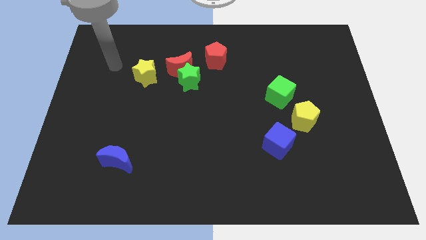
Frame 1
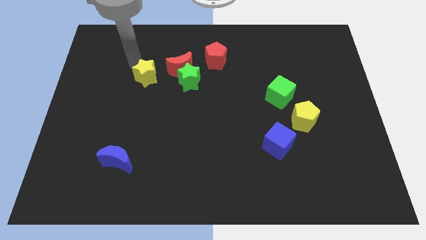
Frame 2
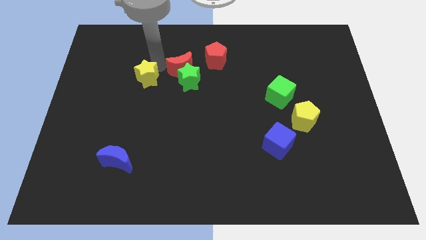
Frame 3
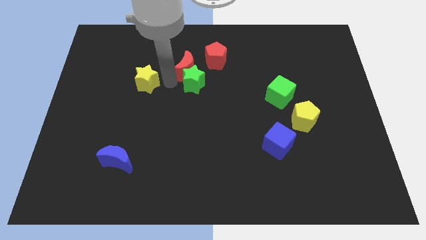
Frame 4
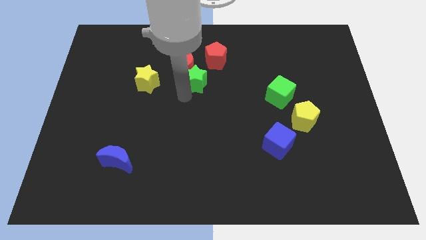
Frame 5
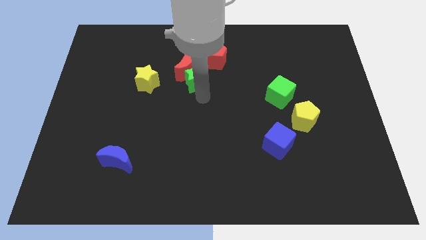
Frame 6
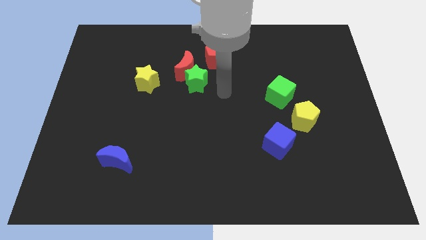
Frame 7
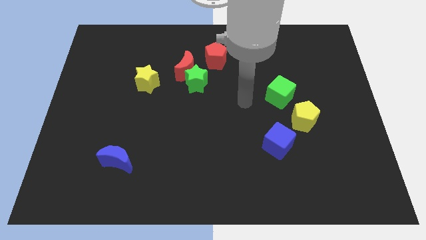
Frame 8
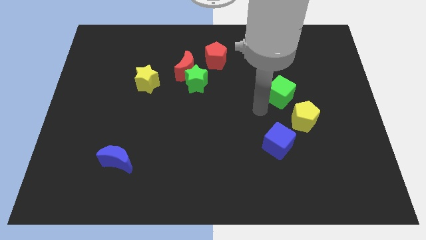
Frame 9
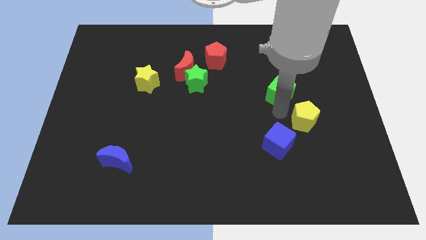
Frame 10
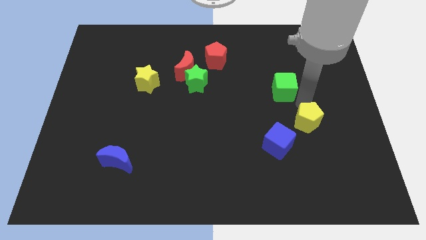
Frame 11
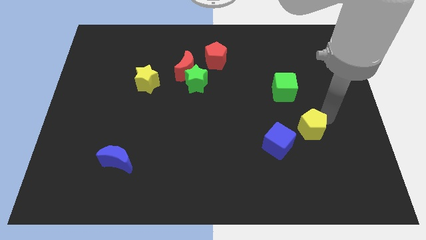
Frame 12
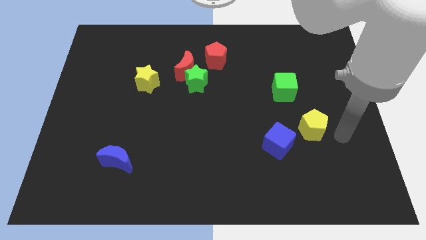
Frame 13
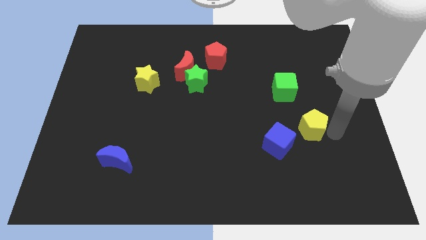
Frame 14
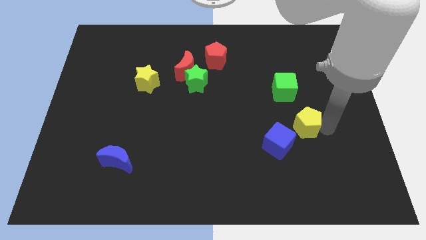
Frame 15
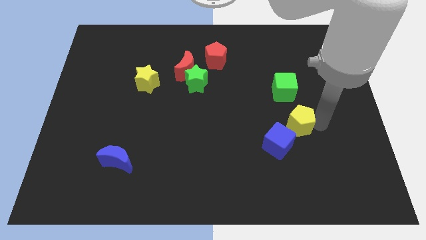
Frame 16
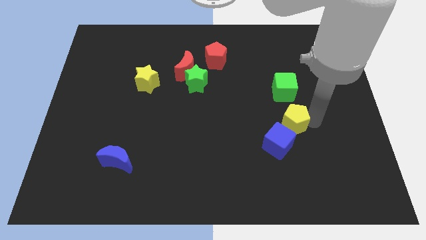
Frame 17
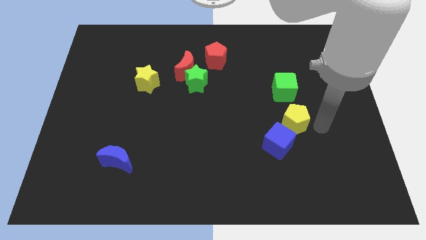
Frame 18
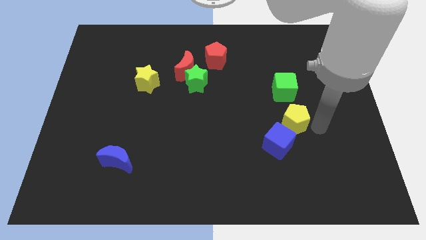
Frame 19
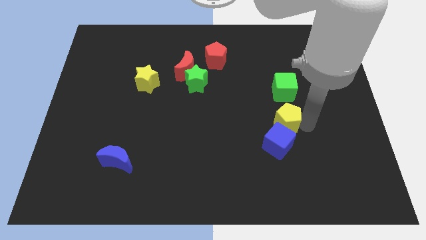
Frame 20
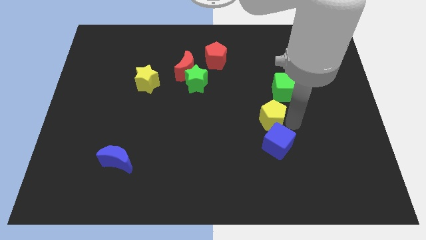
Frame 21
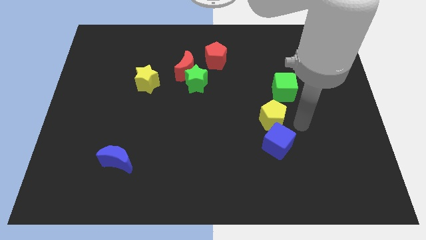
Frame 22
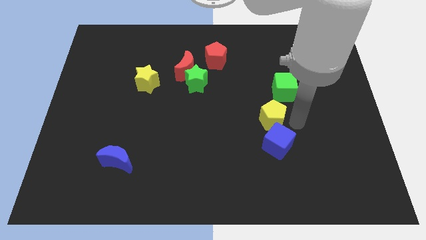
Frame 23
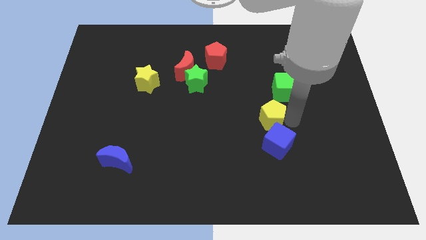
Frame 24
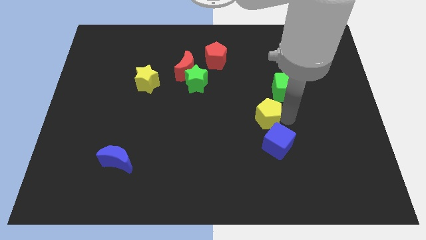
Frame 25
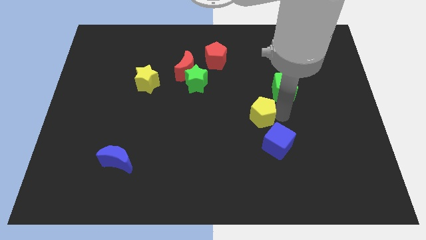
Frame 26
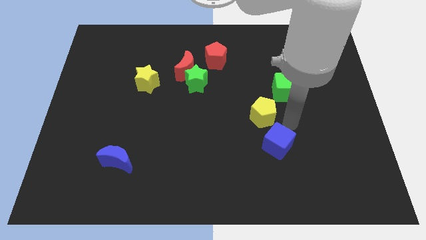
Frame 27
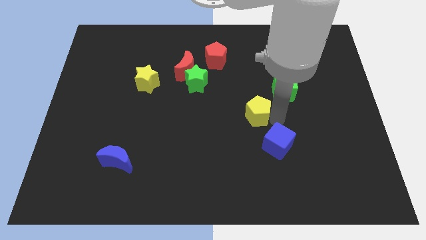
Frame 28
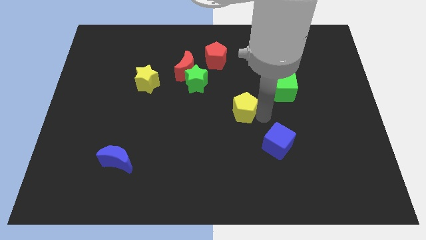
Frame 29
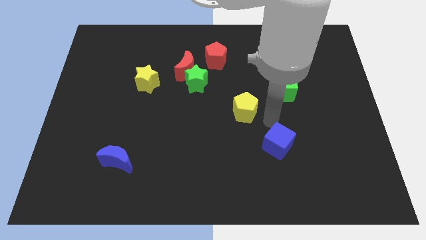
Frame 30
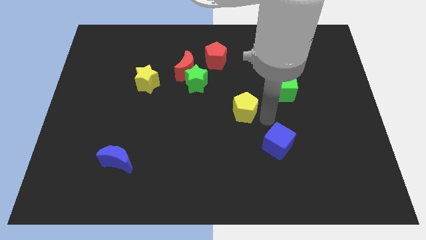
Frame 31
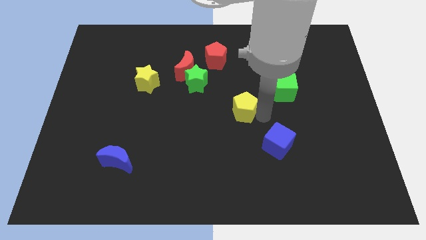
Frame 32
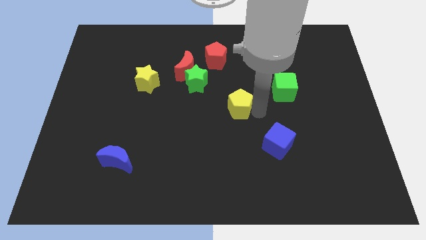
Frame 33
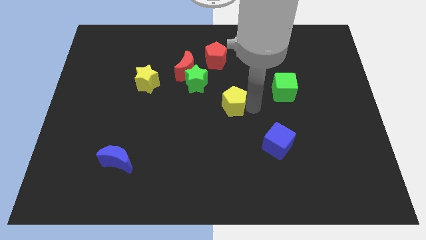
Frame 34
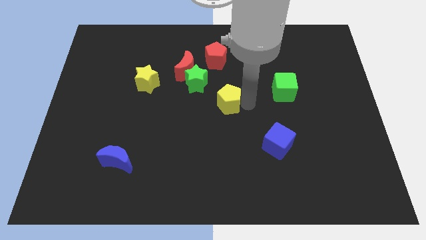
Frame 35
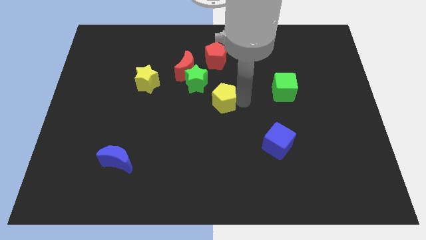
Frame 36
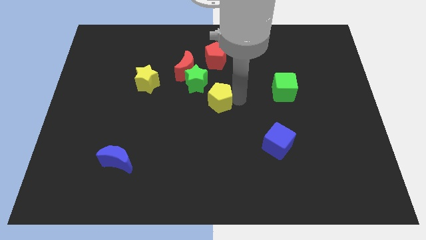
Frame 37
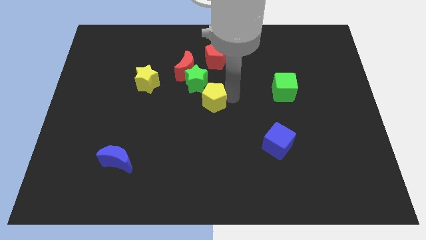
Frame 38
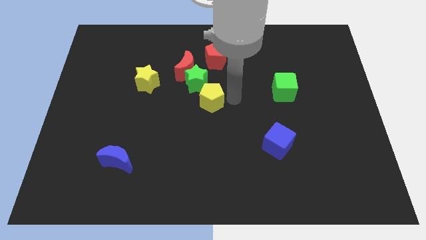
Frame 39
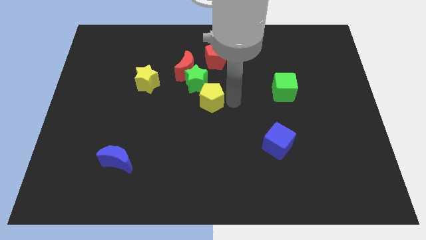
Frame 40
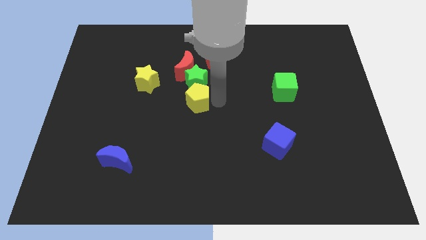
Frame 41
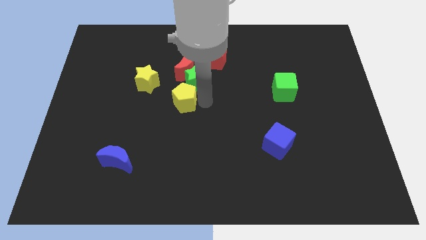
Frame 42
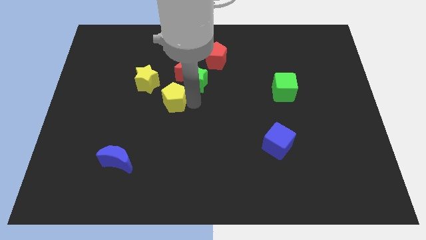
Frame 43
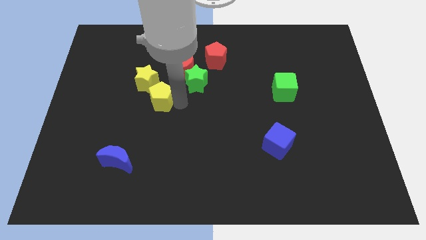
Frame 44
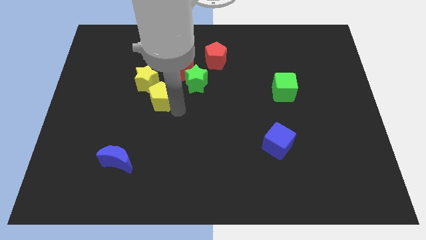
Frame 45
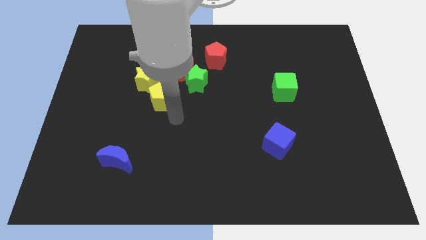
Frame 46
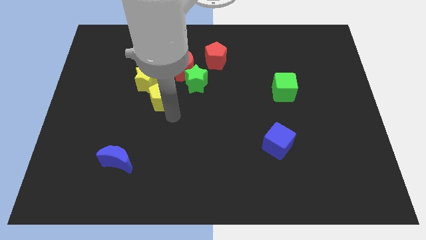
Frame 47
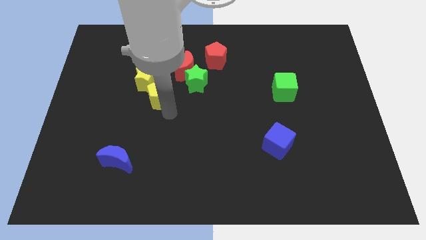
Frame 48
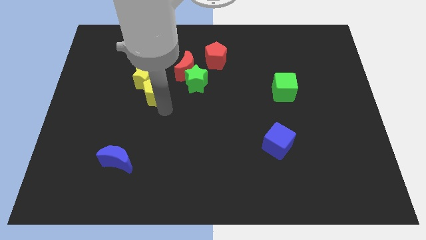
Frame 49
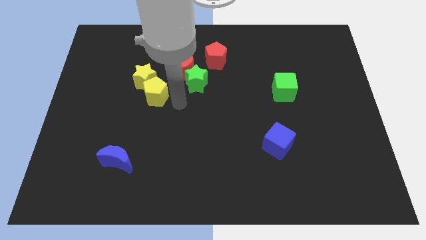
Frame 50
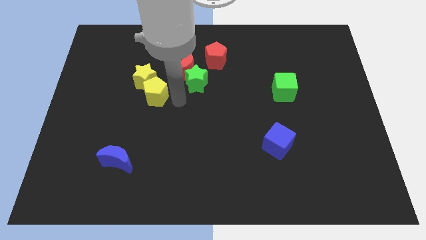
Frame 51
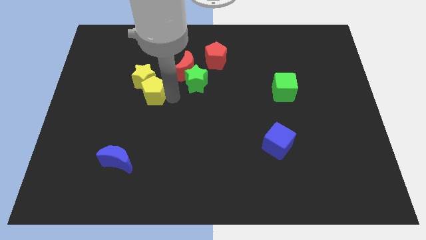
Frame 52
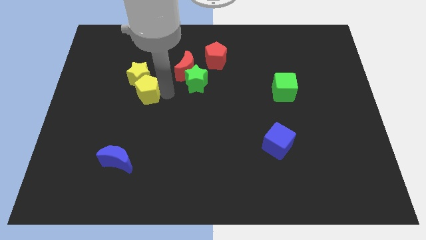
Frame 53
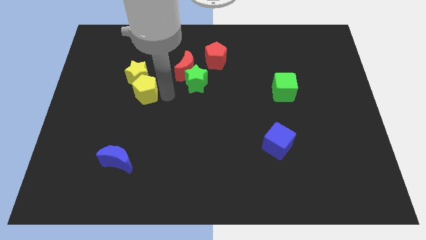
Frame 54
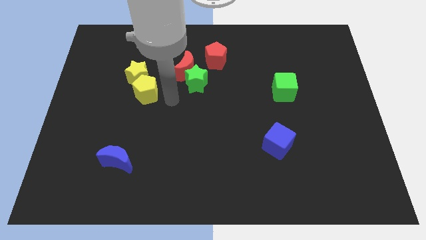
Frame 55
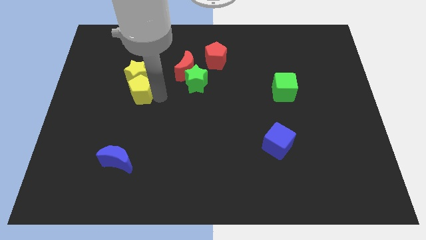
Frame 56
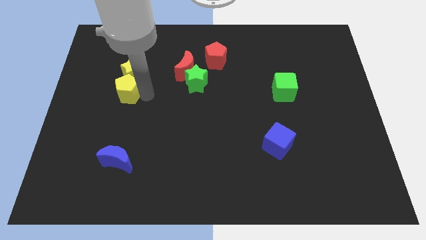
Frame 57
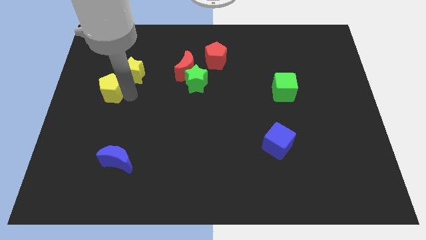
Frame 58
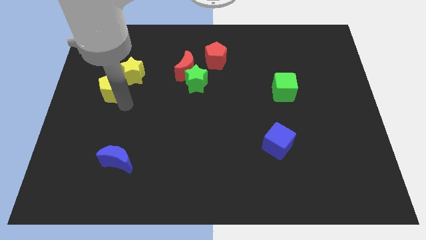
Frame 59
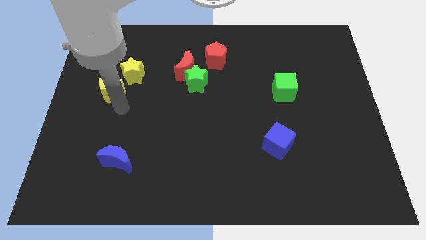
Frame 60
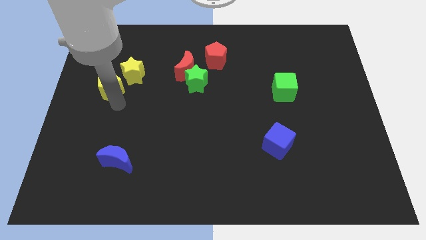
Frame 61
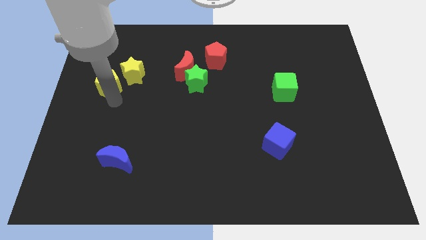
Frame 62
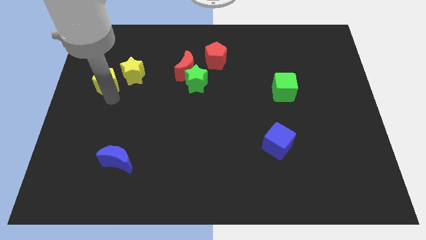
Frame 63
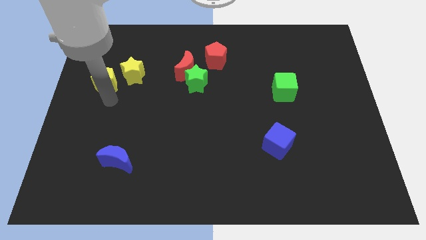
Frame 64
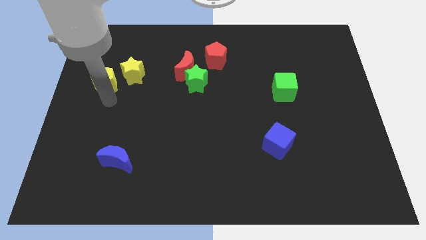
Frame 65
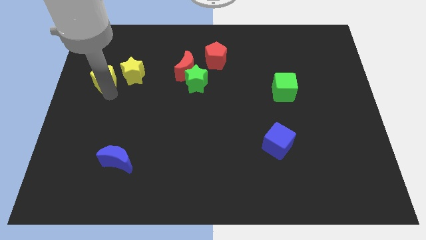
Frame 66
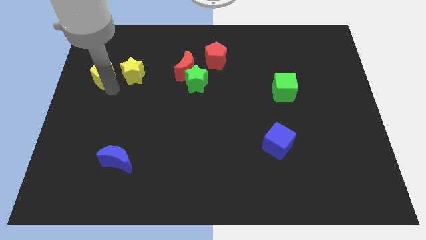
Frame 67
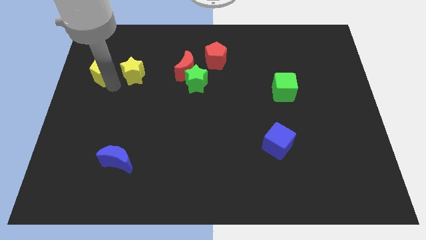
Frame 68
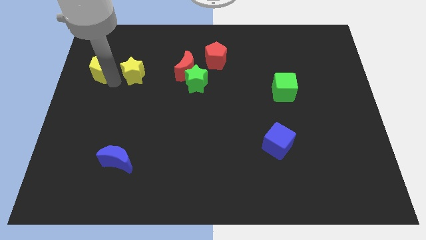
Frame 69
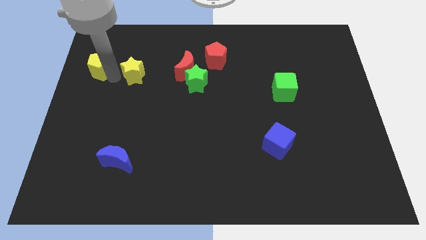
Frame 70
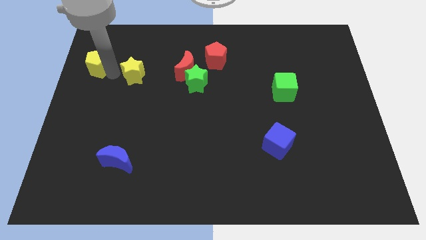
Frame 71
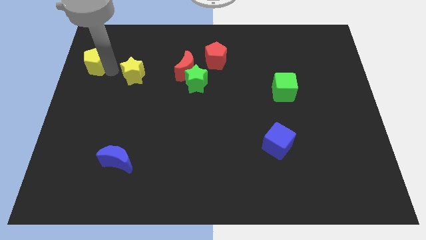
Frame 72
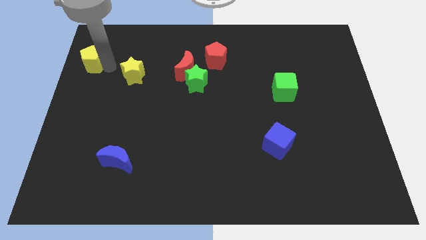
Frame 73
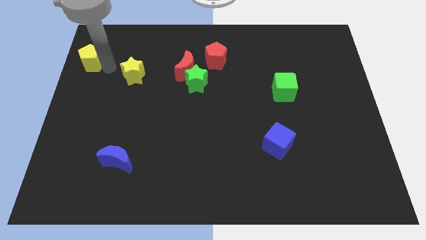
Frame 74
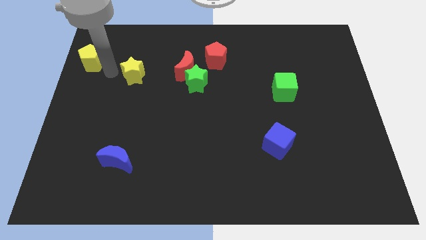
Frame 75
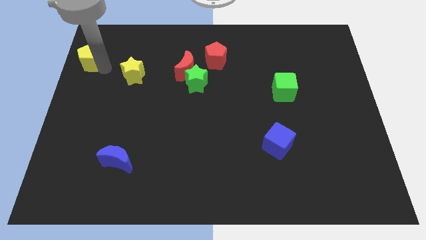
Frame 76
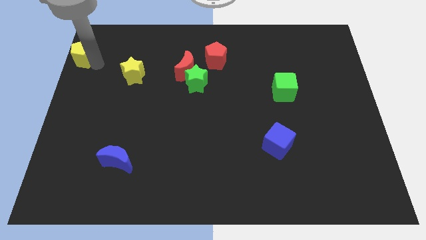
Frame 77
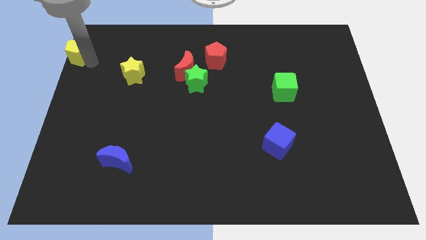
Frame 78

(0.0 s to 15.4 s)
slide the yellow pentagon to the top left corner
